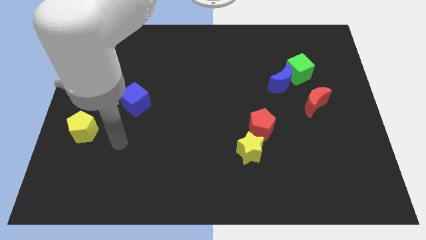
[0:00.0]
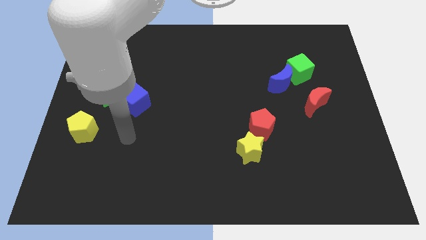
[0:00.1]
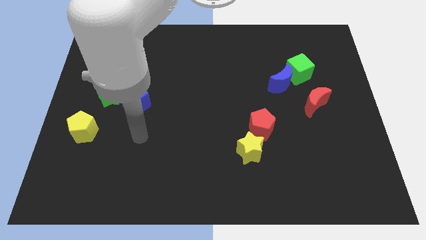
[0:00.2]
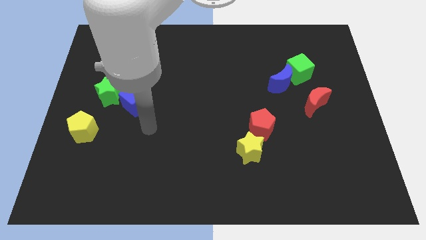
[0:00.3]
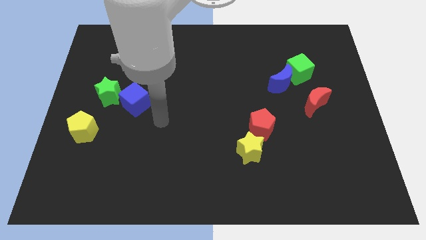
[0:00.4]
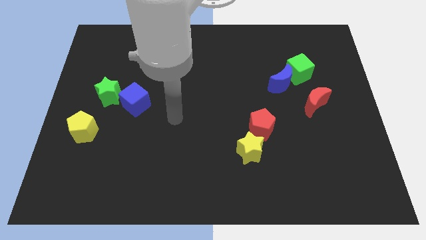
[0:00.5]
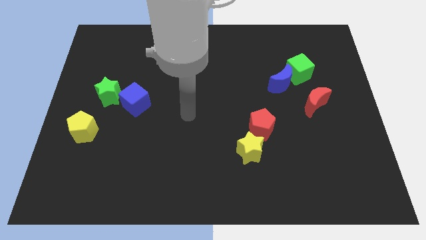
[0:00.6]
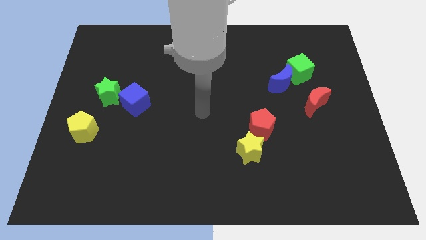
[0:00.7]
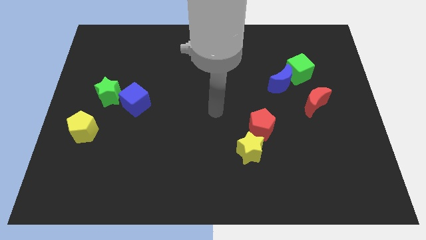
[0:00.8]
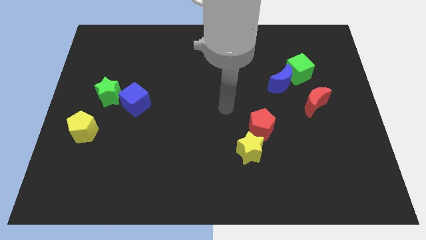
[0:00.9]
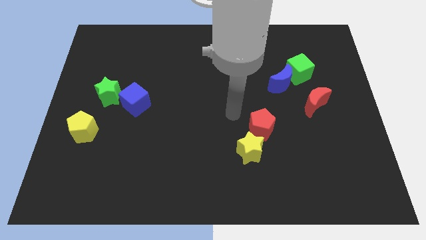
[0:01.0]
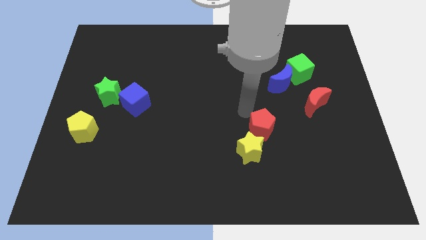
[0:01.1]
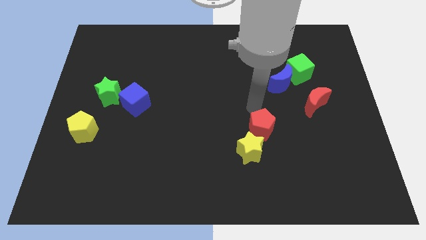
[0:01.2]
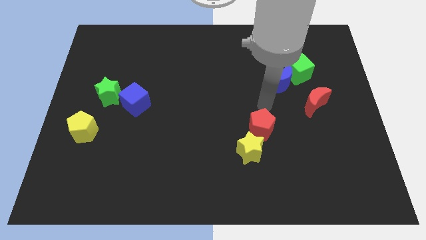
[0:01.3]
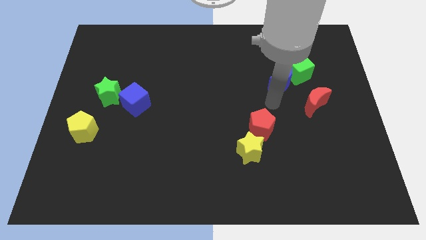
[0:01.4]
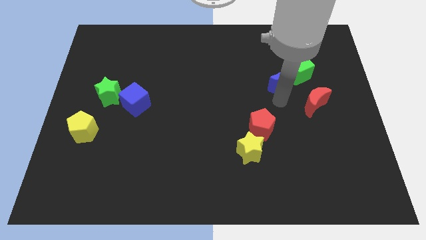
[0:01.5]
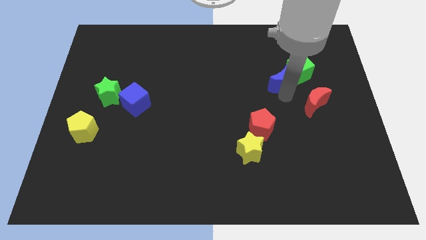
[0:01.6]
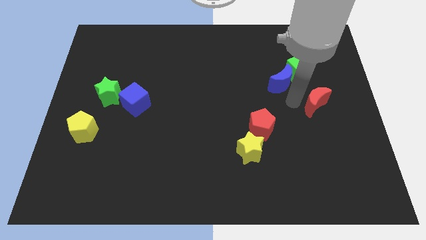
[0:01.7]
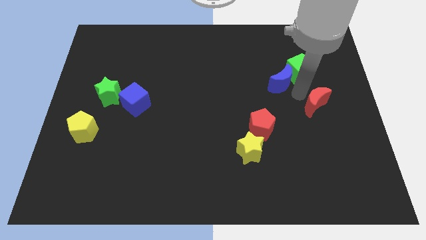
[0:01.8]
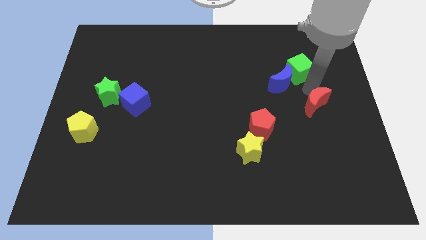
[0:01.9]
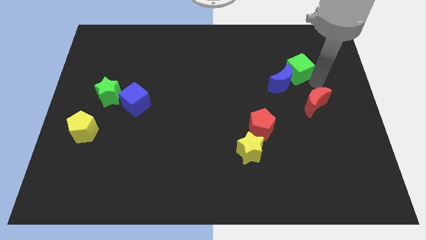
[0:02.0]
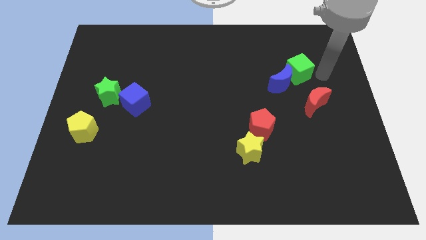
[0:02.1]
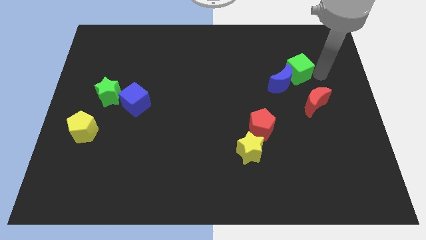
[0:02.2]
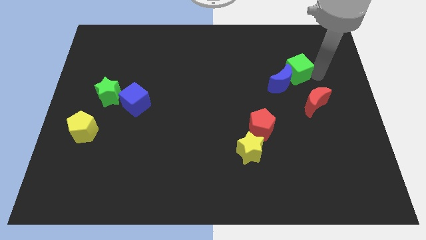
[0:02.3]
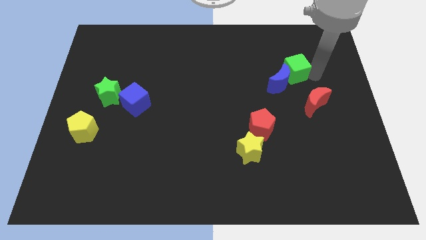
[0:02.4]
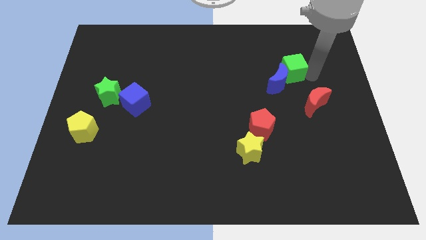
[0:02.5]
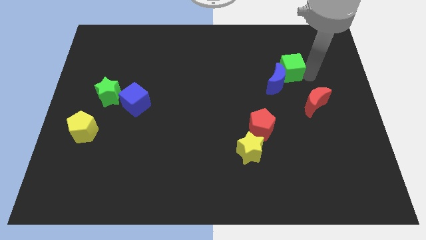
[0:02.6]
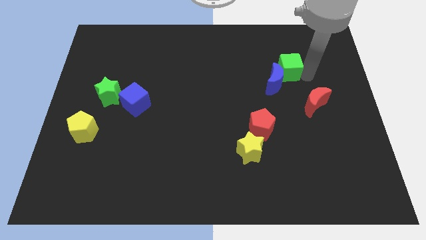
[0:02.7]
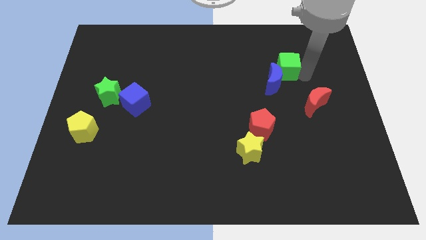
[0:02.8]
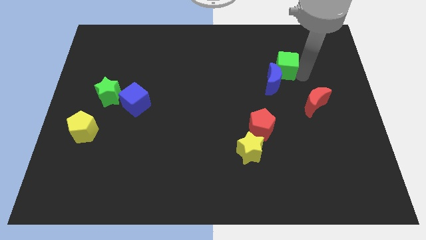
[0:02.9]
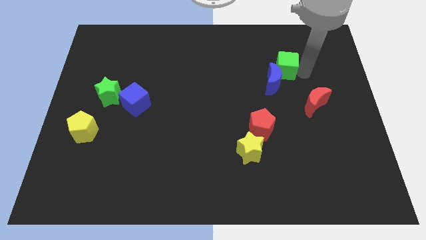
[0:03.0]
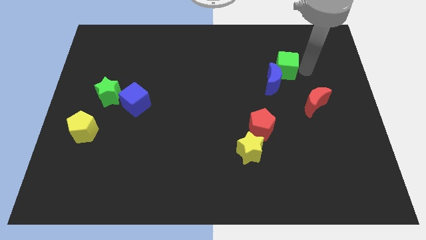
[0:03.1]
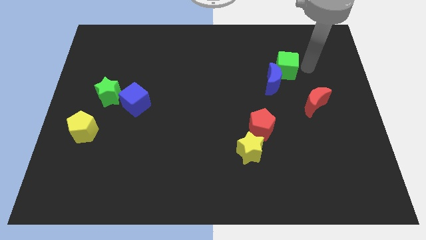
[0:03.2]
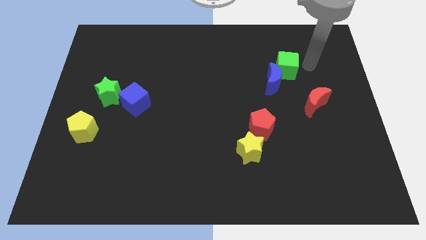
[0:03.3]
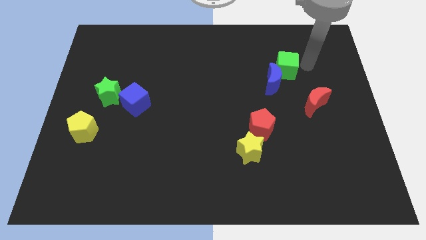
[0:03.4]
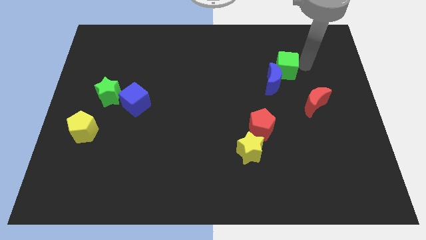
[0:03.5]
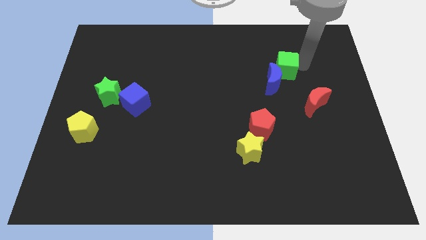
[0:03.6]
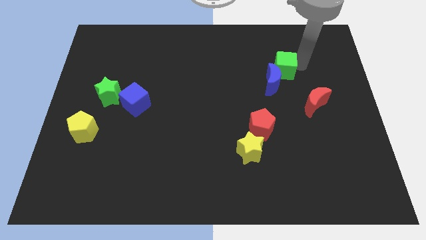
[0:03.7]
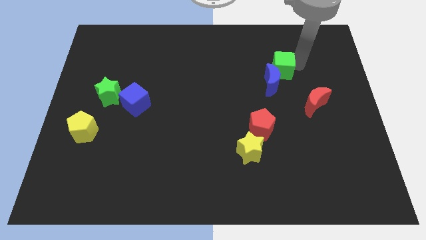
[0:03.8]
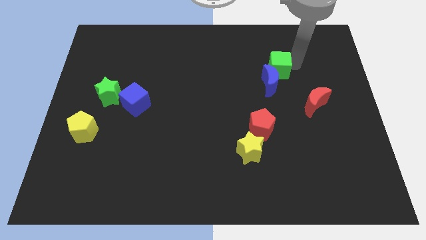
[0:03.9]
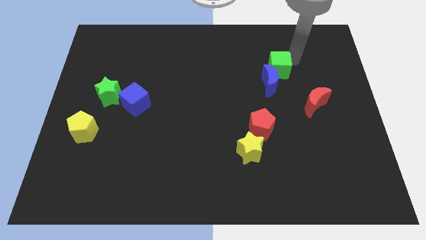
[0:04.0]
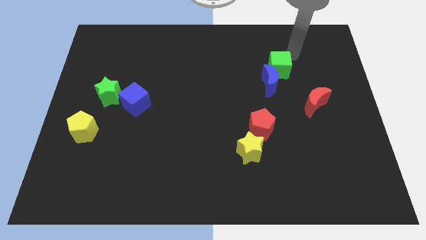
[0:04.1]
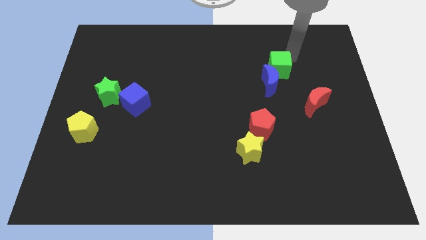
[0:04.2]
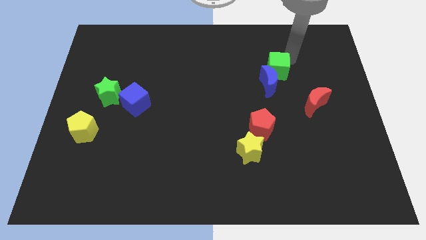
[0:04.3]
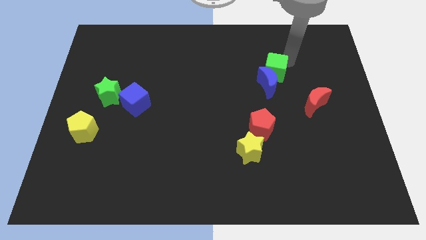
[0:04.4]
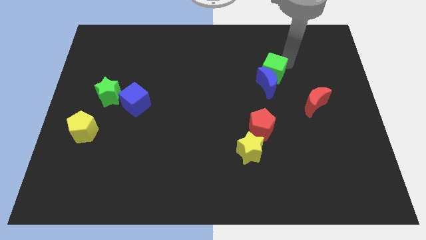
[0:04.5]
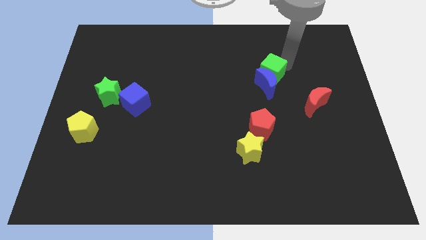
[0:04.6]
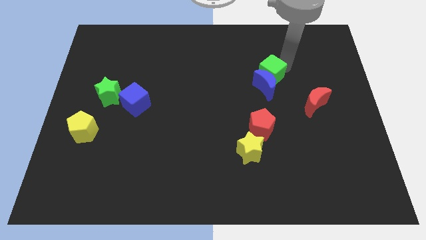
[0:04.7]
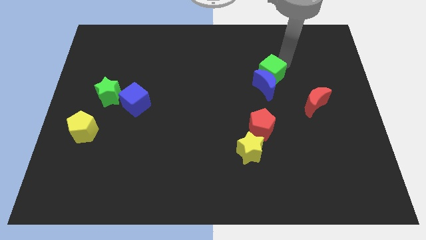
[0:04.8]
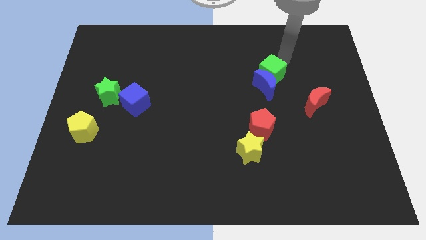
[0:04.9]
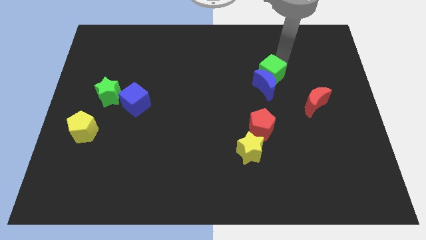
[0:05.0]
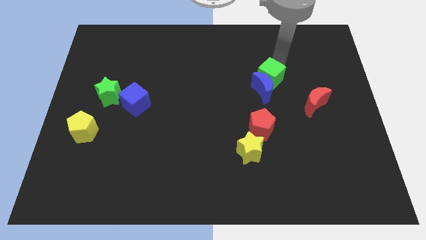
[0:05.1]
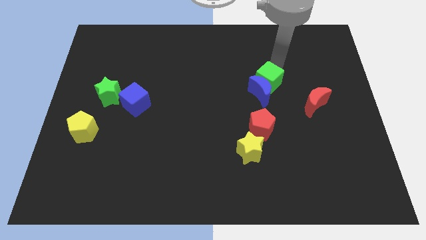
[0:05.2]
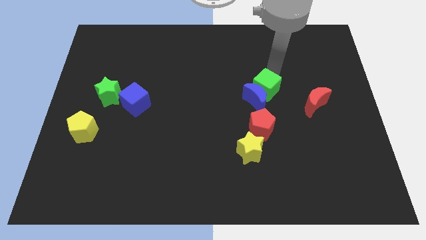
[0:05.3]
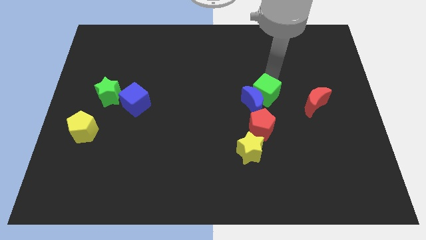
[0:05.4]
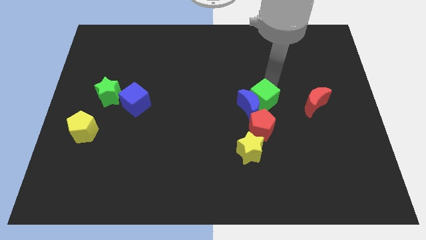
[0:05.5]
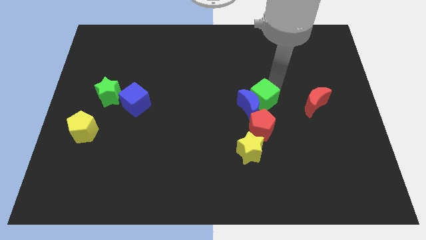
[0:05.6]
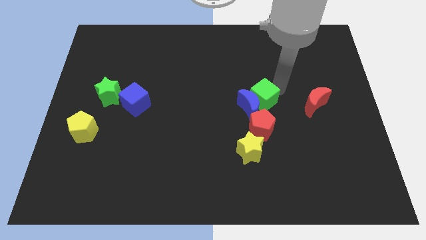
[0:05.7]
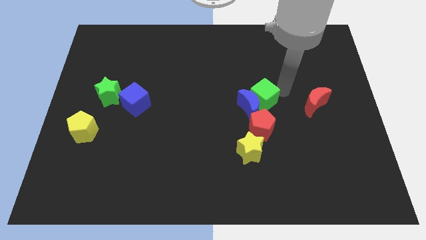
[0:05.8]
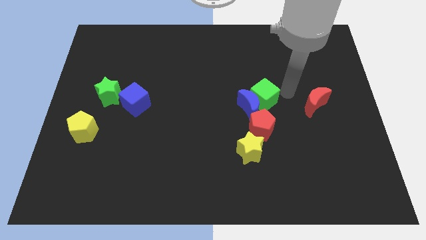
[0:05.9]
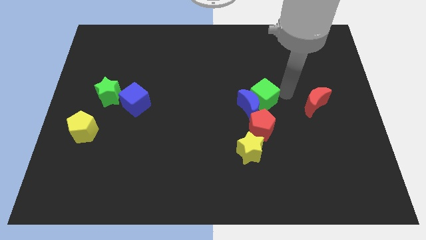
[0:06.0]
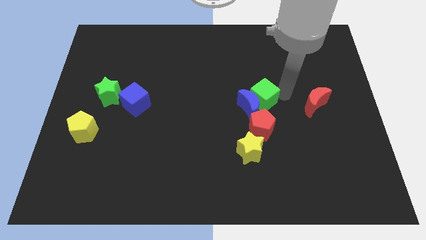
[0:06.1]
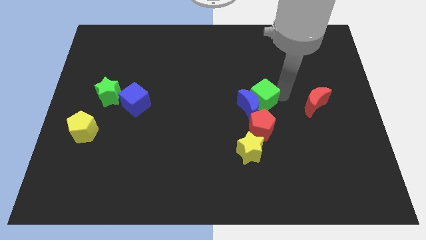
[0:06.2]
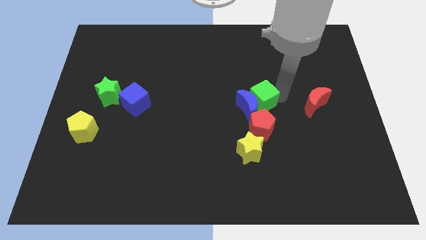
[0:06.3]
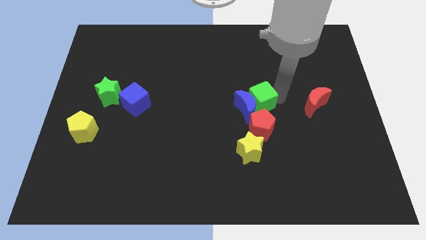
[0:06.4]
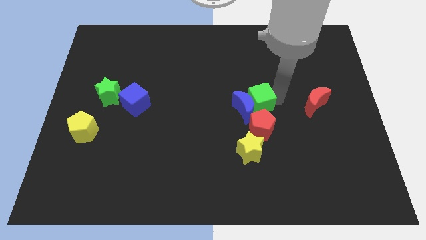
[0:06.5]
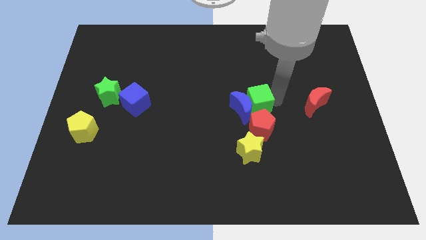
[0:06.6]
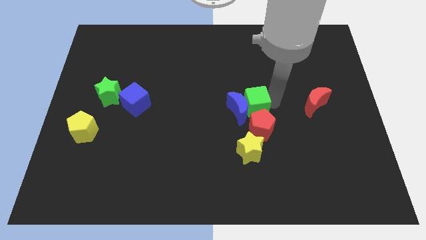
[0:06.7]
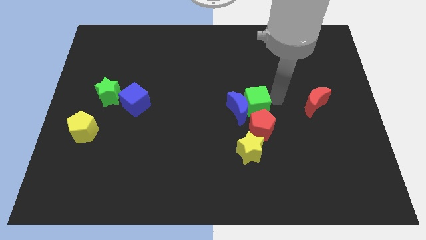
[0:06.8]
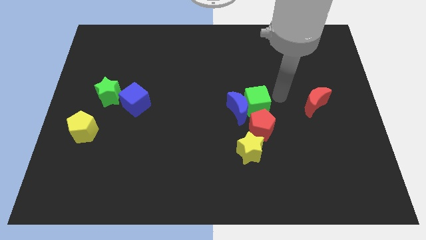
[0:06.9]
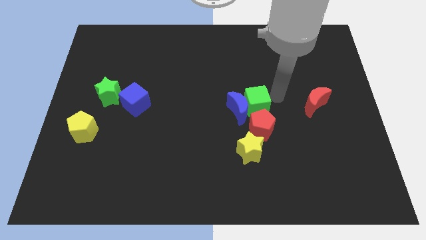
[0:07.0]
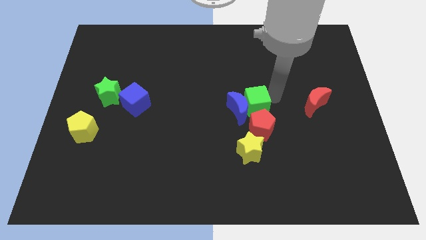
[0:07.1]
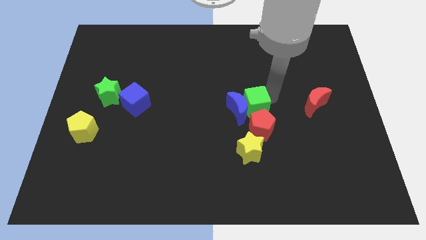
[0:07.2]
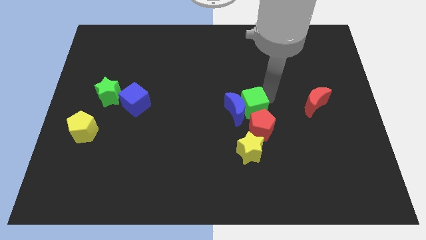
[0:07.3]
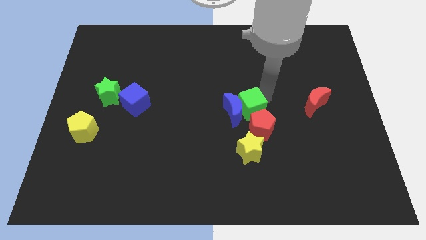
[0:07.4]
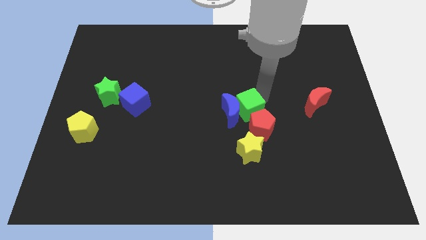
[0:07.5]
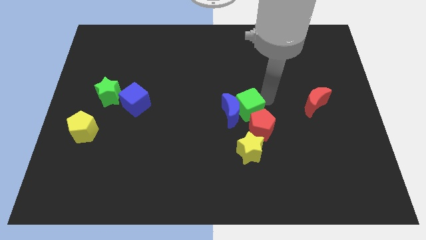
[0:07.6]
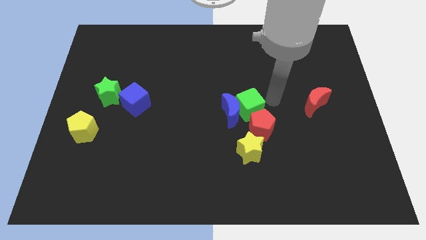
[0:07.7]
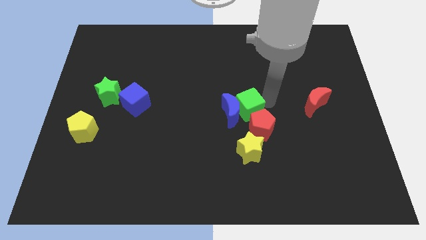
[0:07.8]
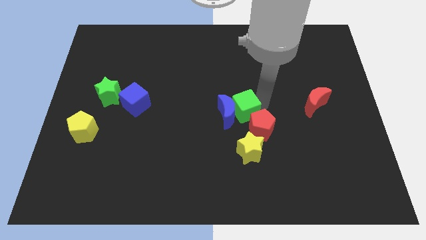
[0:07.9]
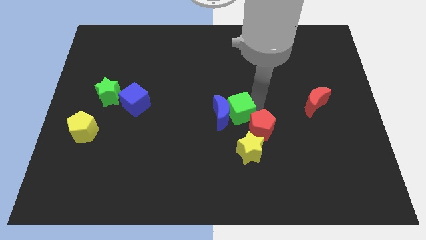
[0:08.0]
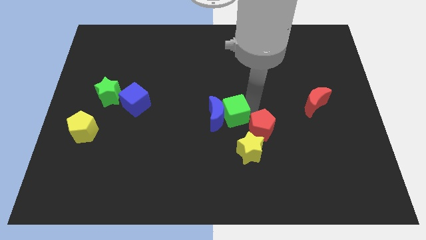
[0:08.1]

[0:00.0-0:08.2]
slide the green cube diagonally downwards and left
